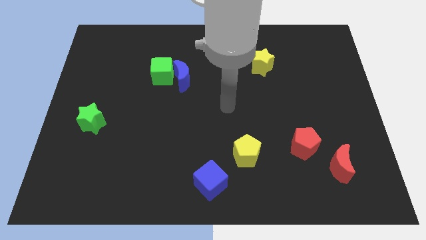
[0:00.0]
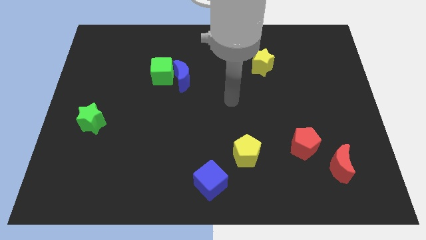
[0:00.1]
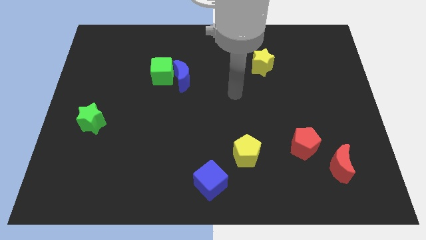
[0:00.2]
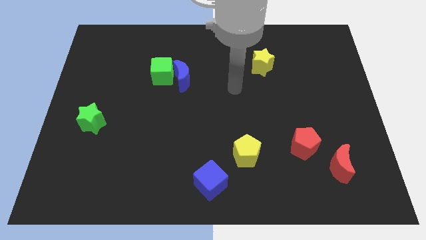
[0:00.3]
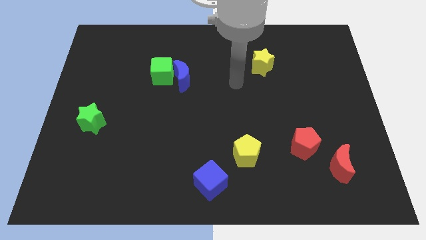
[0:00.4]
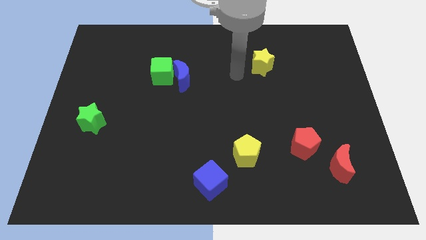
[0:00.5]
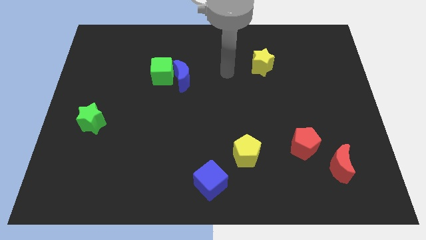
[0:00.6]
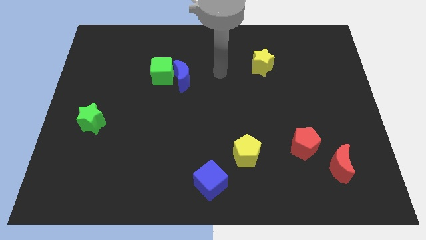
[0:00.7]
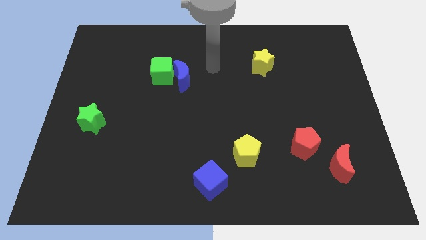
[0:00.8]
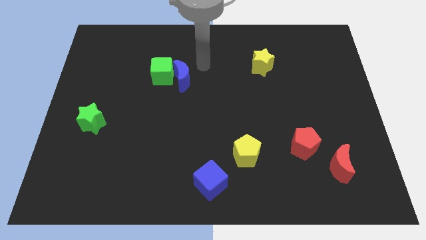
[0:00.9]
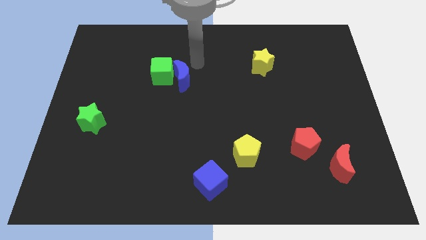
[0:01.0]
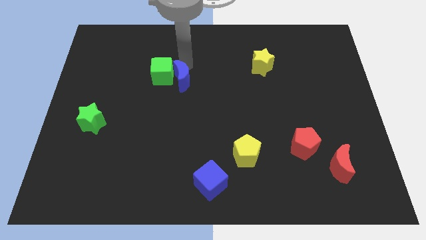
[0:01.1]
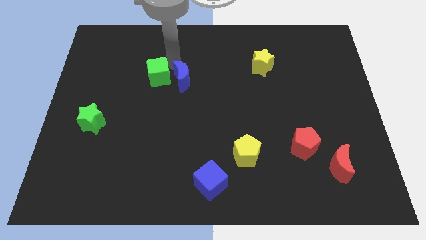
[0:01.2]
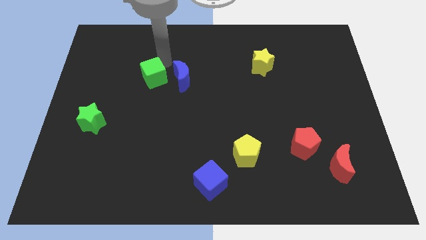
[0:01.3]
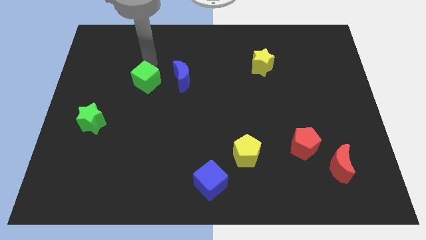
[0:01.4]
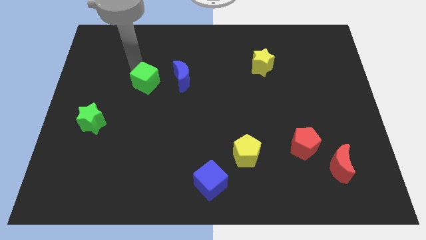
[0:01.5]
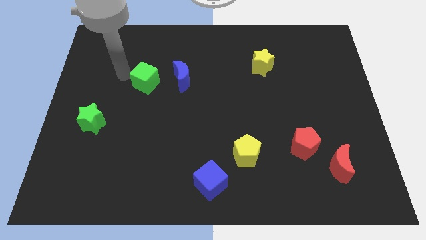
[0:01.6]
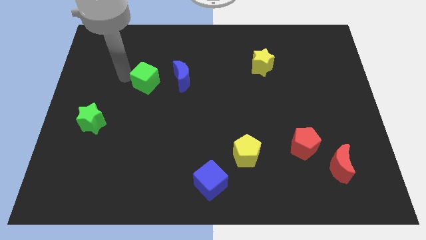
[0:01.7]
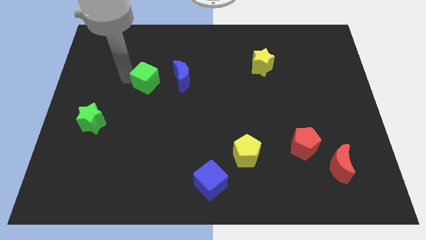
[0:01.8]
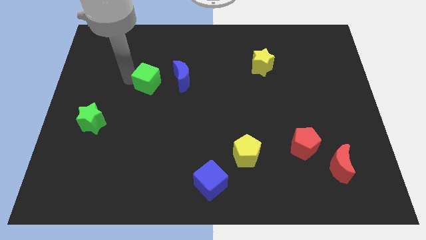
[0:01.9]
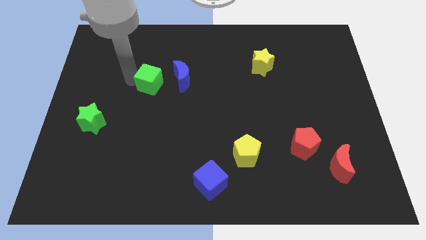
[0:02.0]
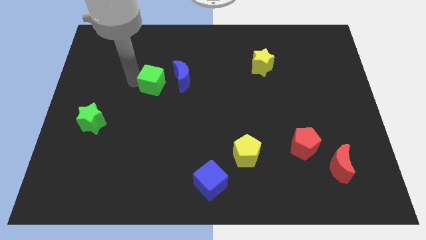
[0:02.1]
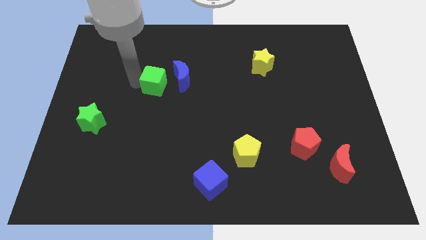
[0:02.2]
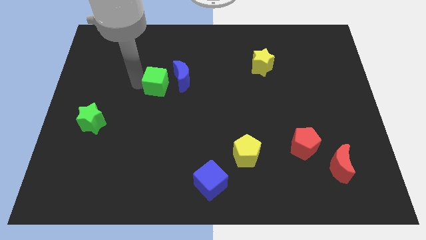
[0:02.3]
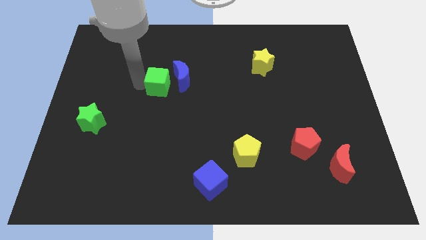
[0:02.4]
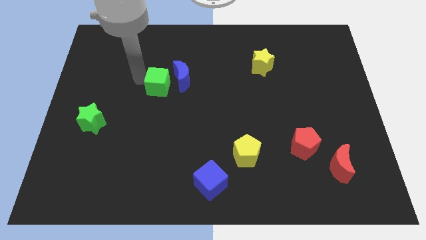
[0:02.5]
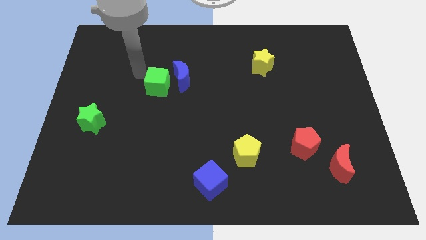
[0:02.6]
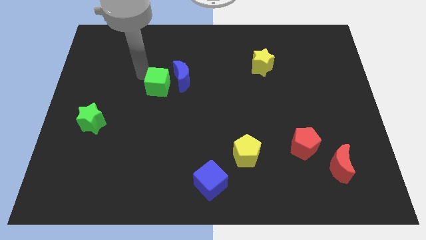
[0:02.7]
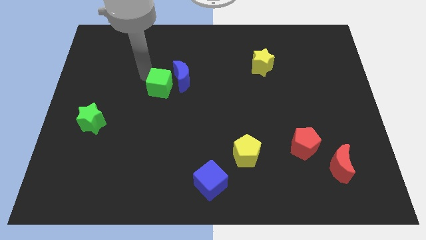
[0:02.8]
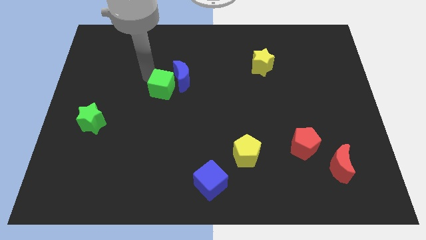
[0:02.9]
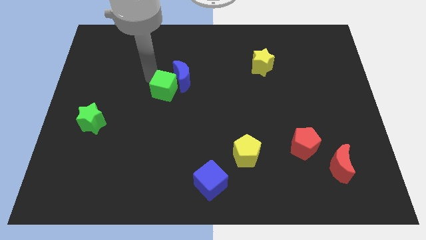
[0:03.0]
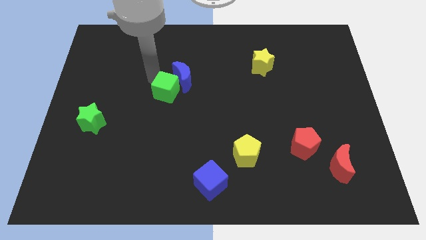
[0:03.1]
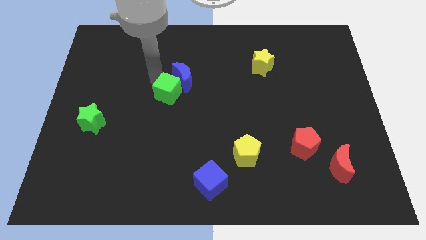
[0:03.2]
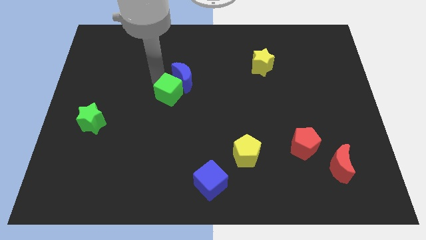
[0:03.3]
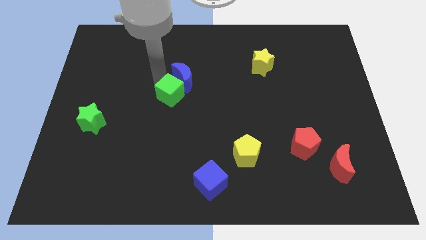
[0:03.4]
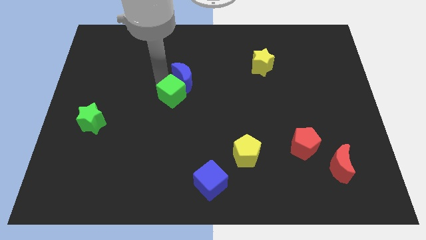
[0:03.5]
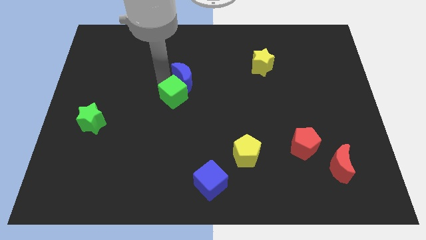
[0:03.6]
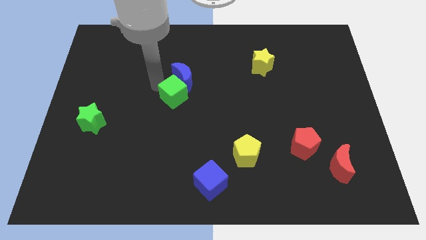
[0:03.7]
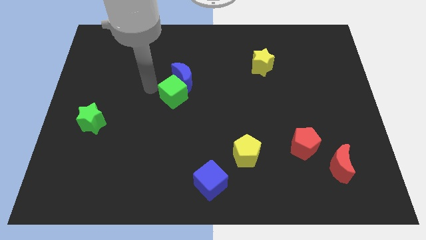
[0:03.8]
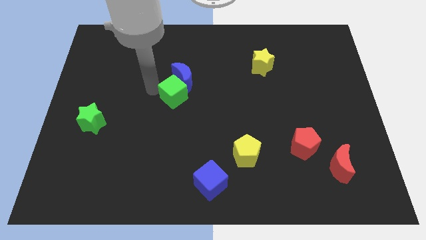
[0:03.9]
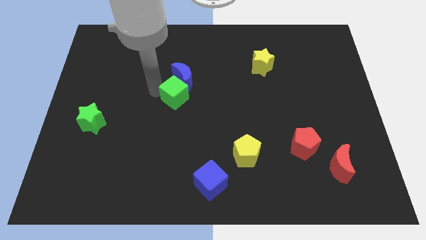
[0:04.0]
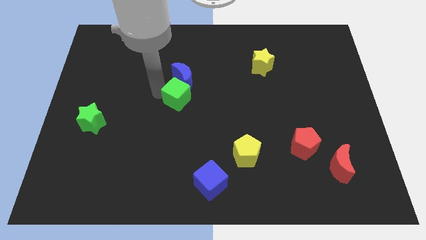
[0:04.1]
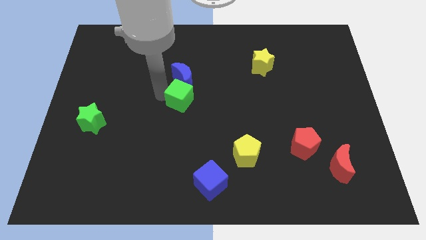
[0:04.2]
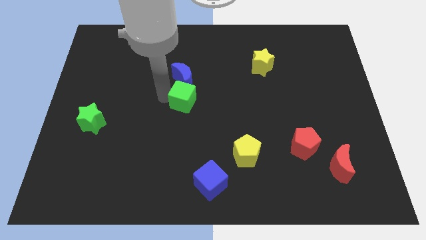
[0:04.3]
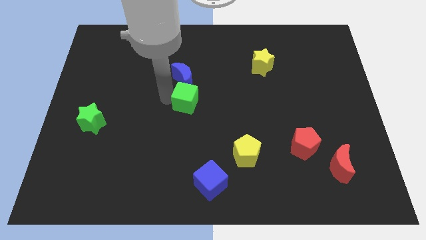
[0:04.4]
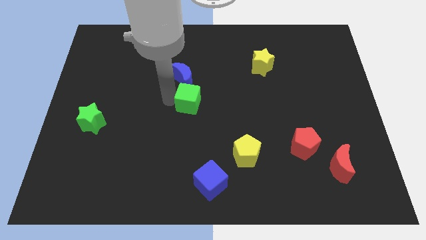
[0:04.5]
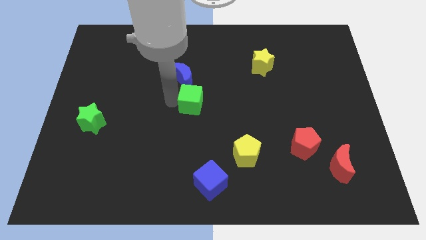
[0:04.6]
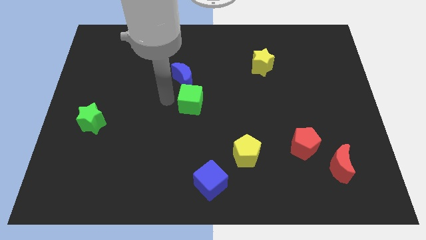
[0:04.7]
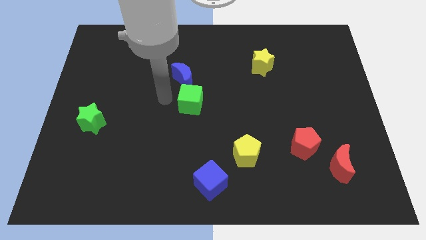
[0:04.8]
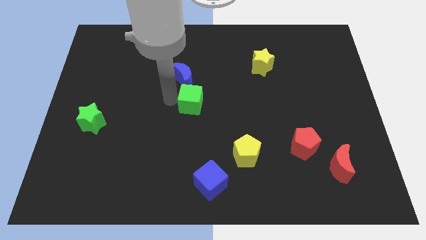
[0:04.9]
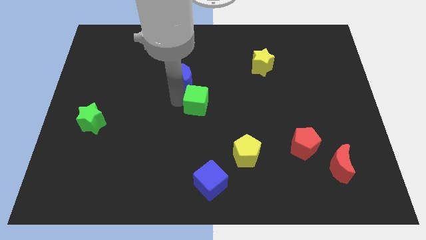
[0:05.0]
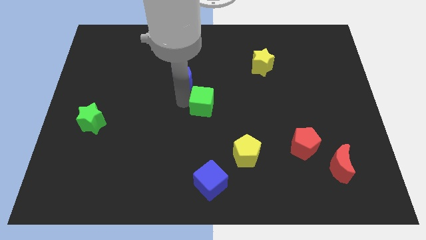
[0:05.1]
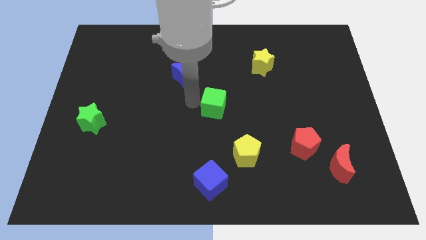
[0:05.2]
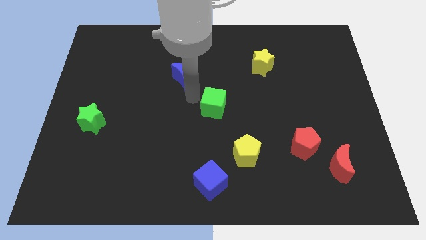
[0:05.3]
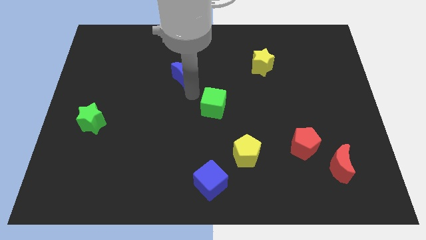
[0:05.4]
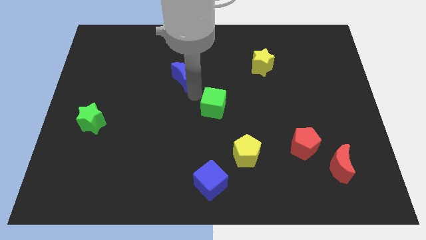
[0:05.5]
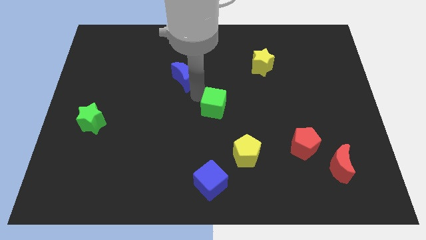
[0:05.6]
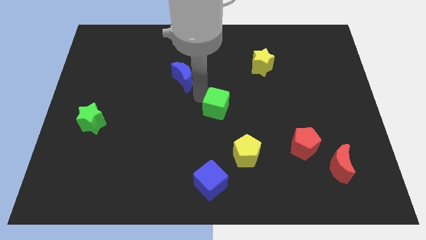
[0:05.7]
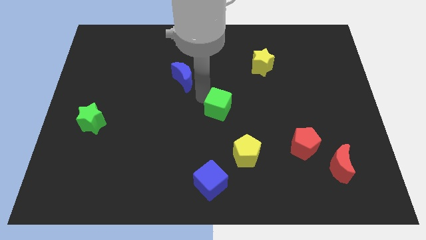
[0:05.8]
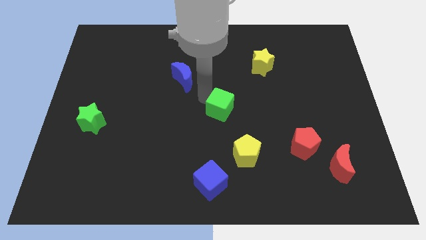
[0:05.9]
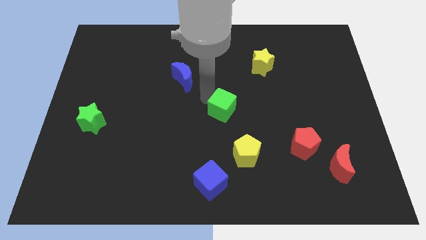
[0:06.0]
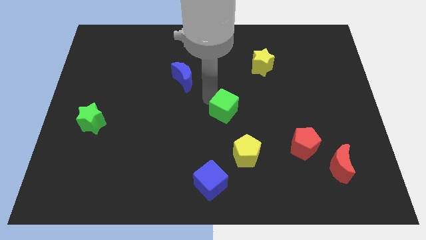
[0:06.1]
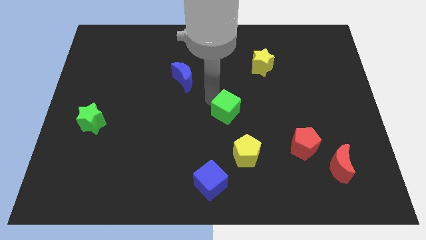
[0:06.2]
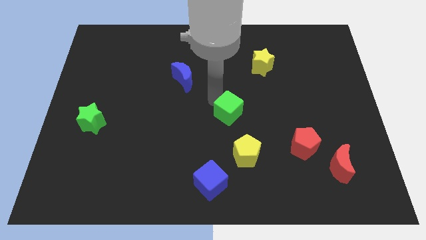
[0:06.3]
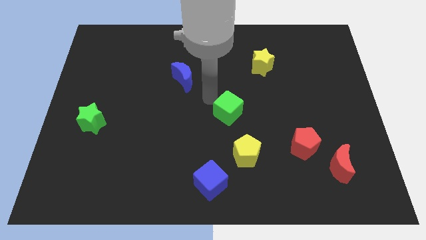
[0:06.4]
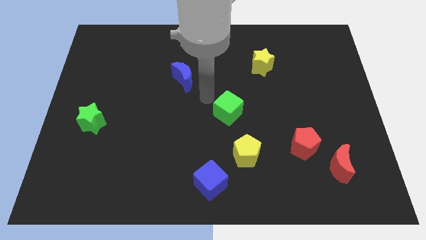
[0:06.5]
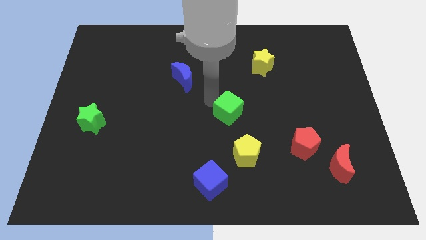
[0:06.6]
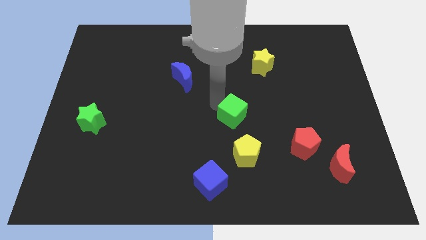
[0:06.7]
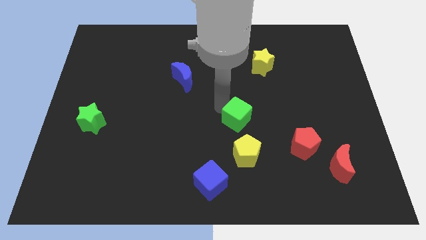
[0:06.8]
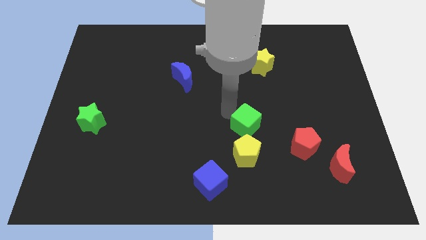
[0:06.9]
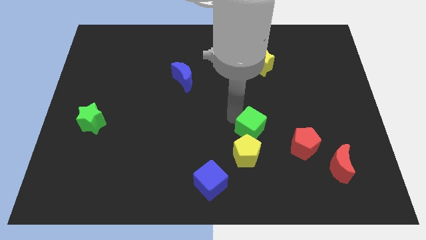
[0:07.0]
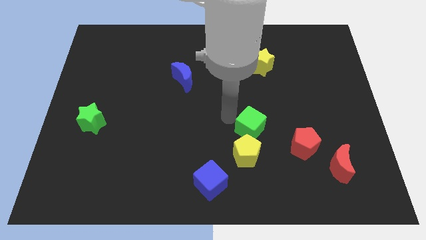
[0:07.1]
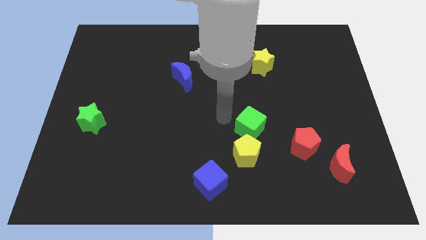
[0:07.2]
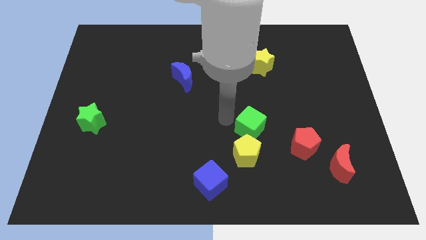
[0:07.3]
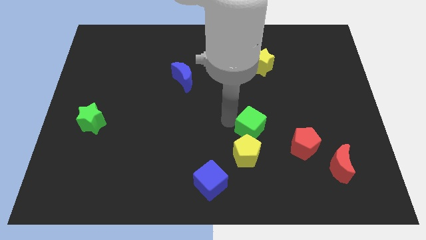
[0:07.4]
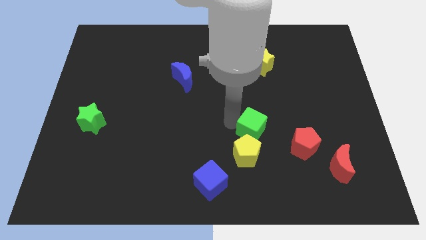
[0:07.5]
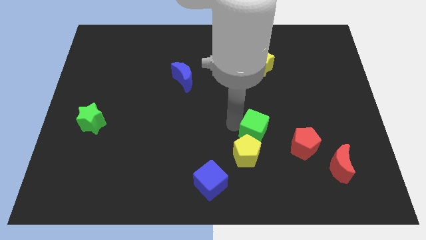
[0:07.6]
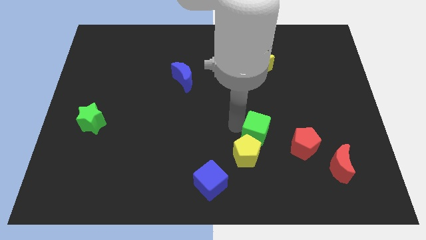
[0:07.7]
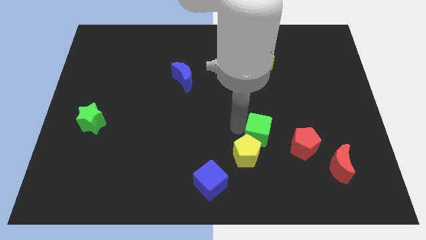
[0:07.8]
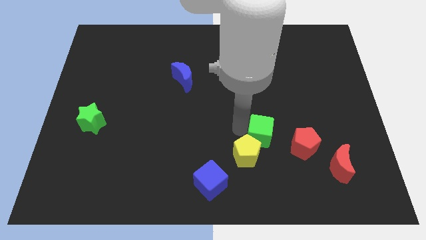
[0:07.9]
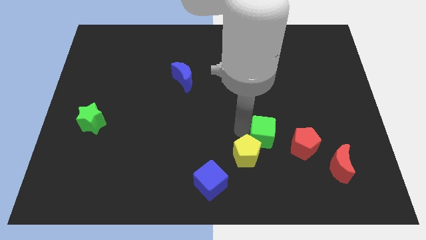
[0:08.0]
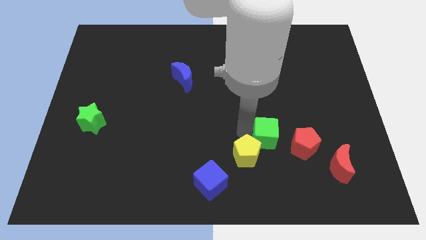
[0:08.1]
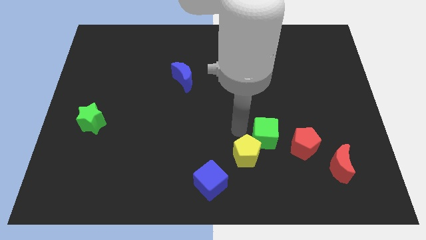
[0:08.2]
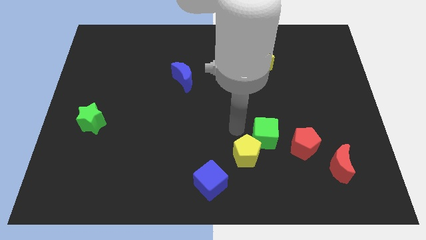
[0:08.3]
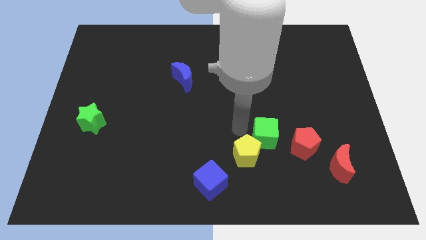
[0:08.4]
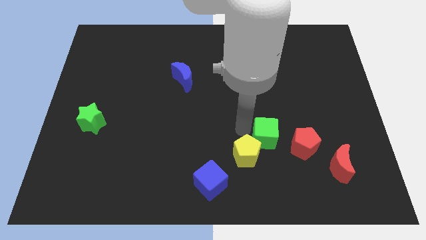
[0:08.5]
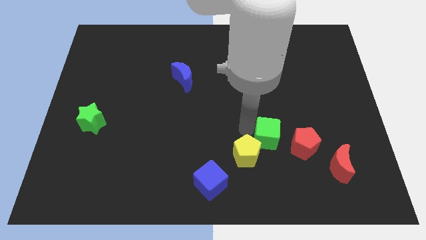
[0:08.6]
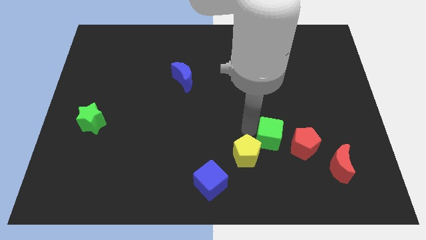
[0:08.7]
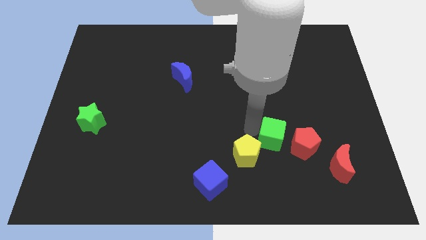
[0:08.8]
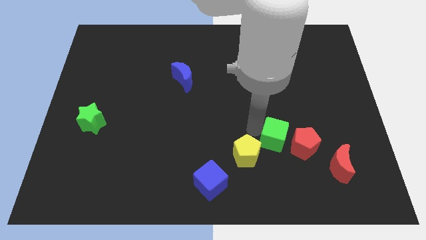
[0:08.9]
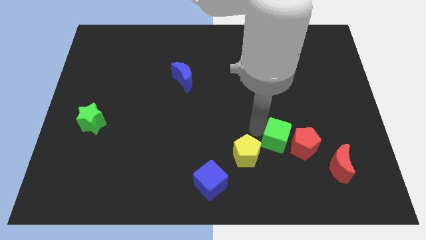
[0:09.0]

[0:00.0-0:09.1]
push the green cube close to the red pentagon
